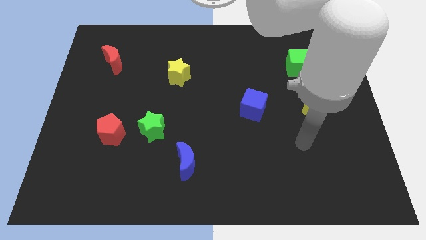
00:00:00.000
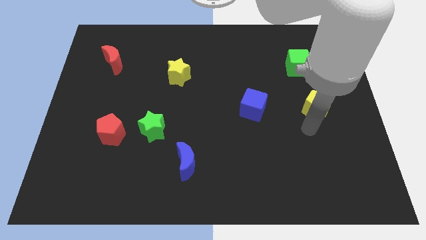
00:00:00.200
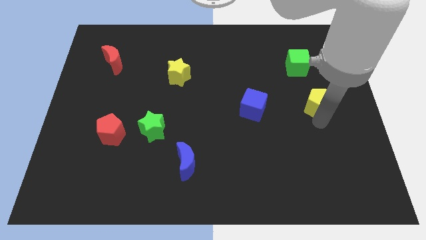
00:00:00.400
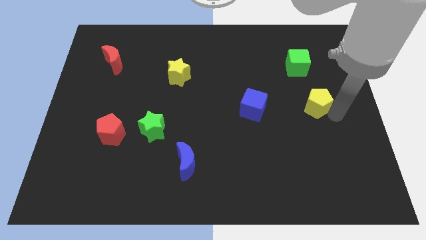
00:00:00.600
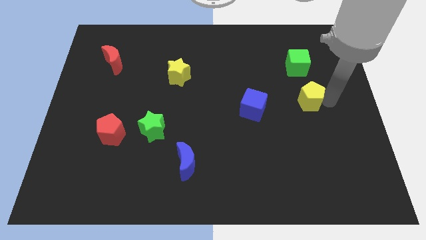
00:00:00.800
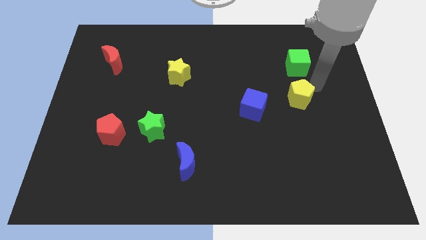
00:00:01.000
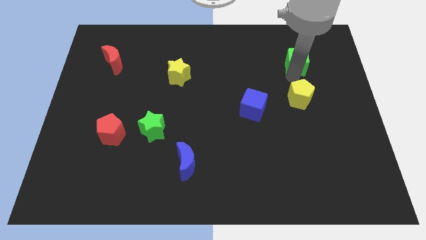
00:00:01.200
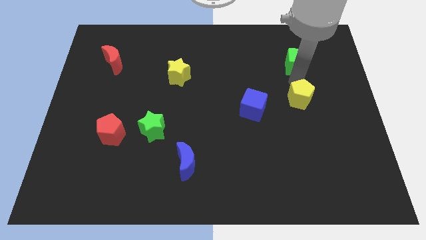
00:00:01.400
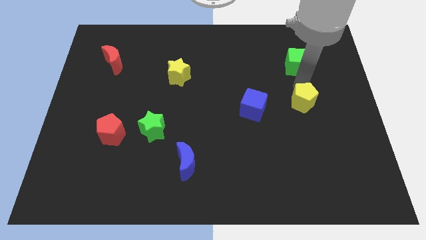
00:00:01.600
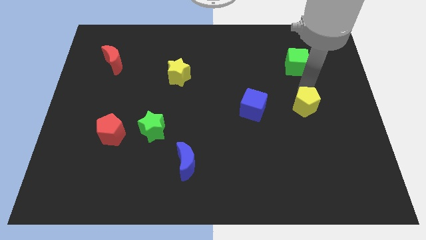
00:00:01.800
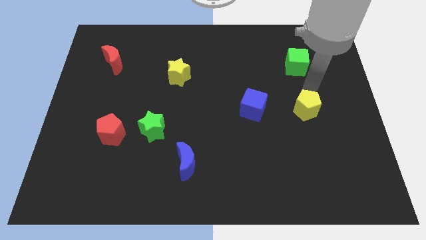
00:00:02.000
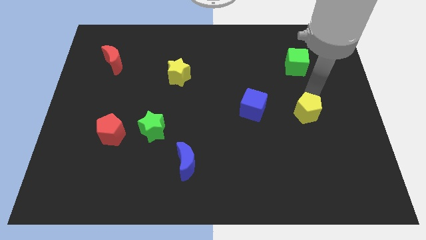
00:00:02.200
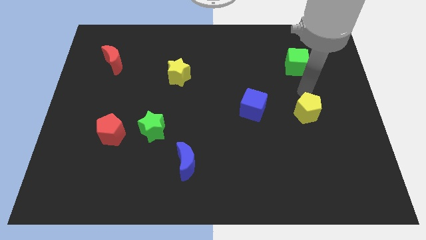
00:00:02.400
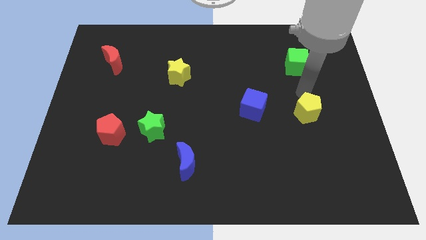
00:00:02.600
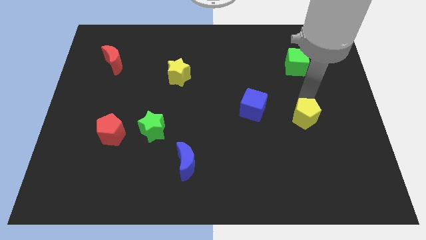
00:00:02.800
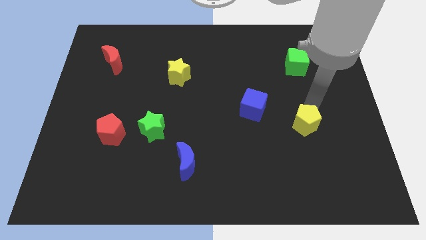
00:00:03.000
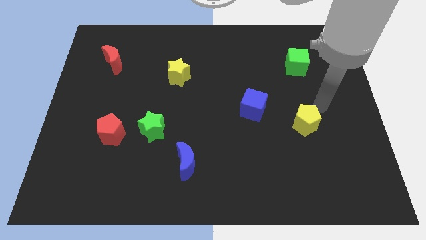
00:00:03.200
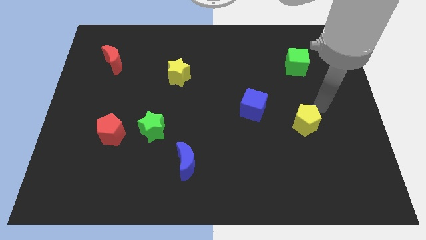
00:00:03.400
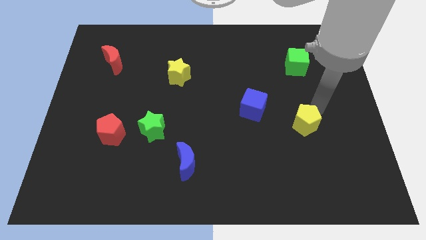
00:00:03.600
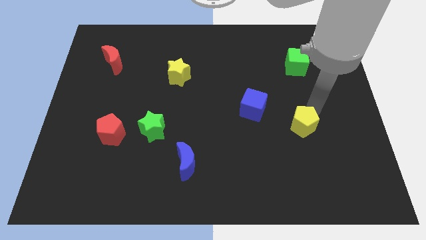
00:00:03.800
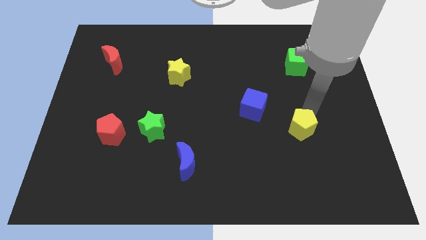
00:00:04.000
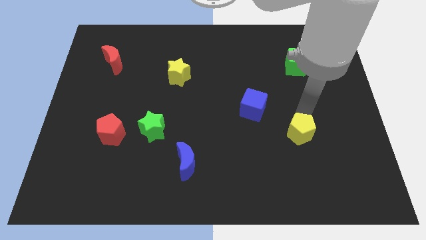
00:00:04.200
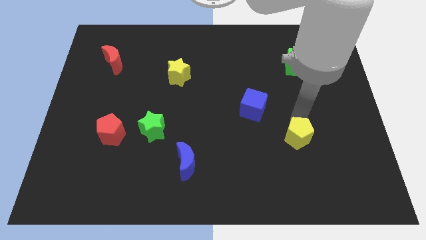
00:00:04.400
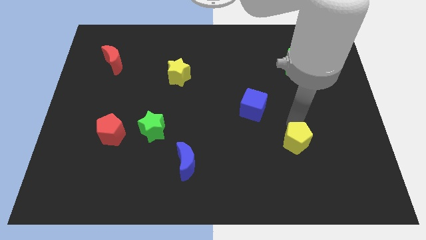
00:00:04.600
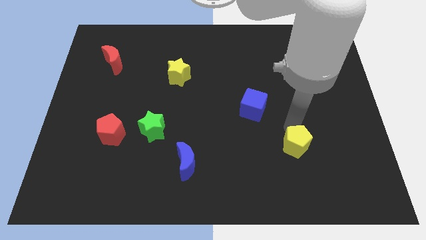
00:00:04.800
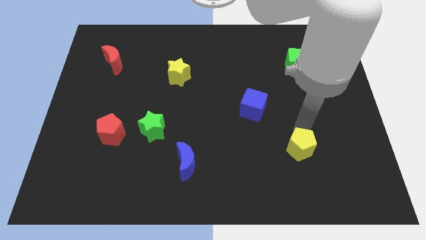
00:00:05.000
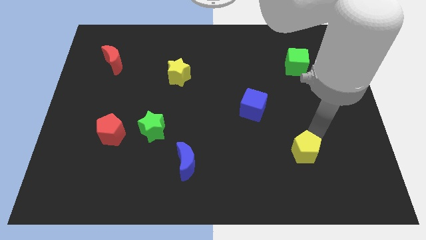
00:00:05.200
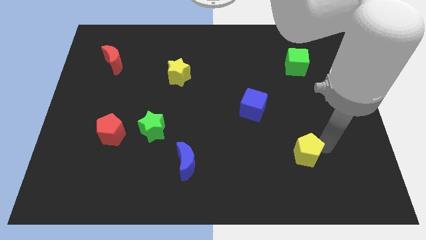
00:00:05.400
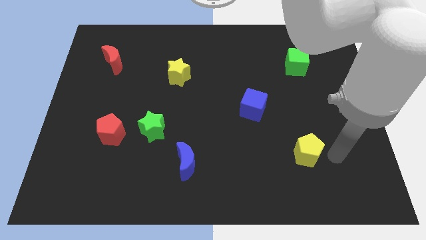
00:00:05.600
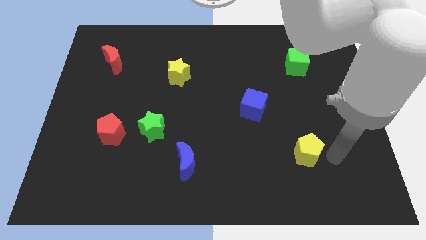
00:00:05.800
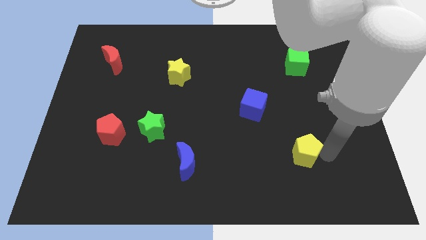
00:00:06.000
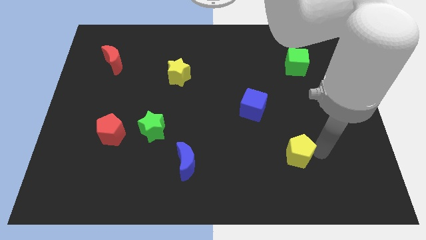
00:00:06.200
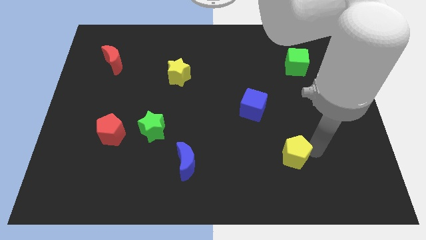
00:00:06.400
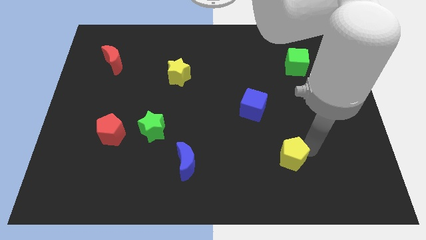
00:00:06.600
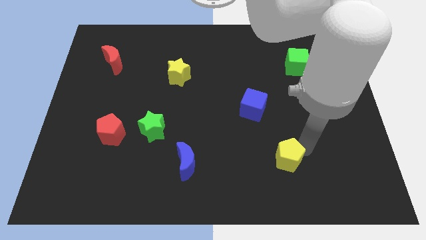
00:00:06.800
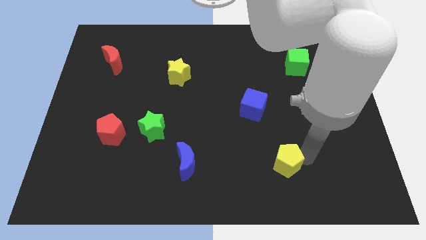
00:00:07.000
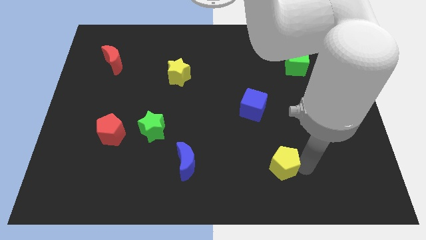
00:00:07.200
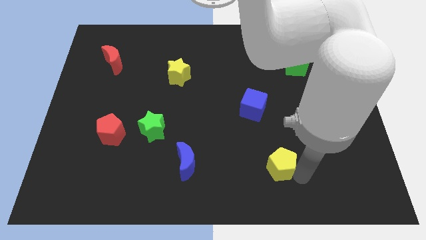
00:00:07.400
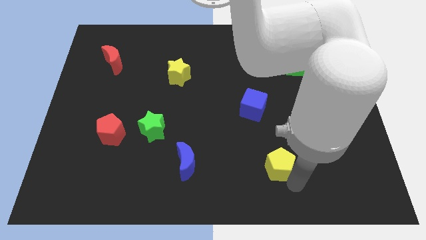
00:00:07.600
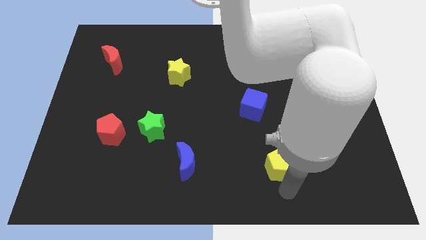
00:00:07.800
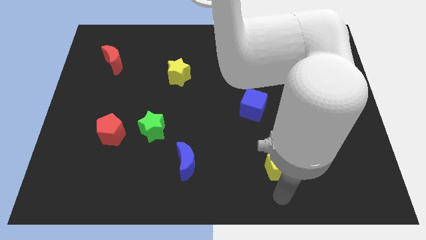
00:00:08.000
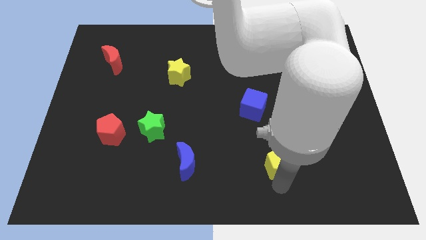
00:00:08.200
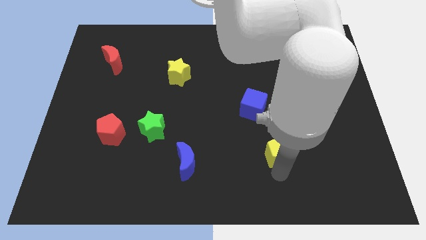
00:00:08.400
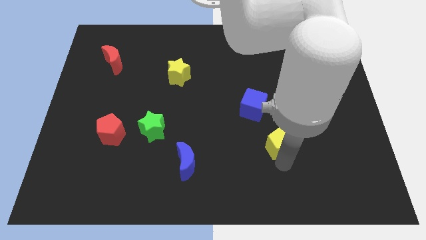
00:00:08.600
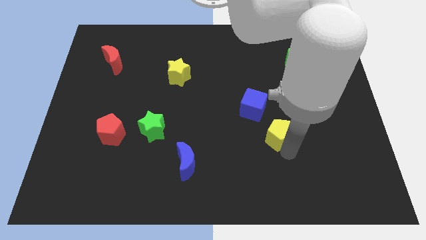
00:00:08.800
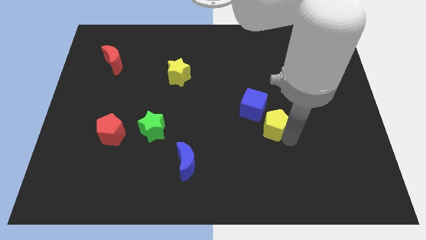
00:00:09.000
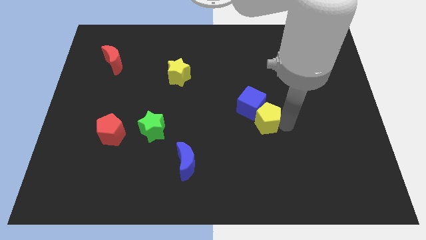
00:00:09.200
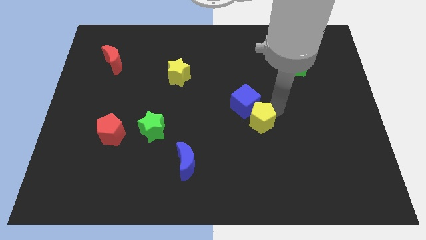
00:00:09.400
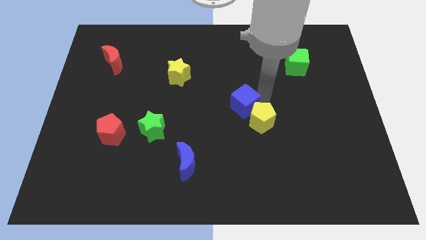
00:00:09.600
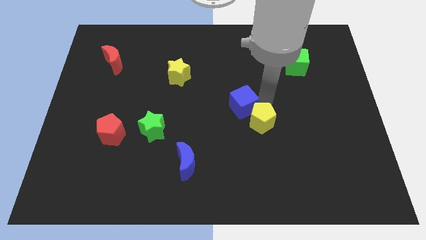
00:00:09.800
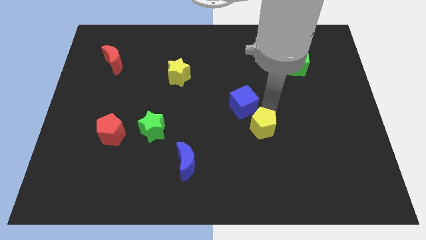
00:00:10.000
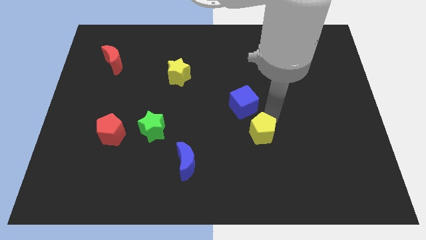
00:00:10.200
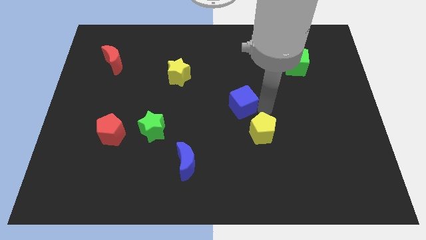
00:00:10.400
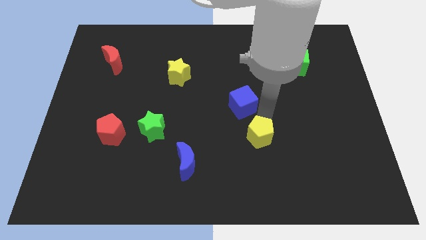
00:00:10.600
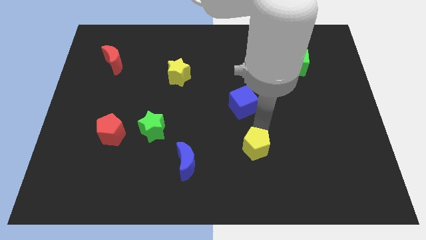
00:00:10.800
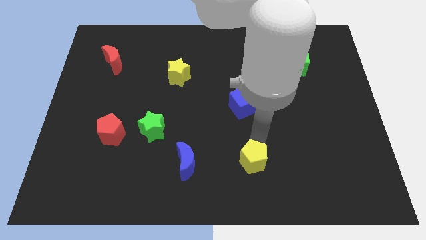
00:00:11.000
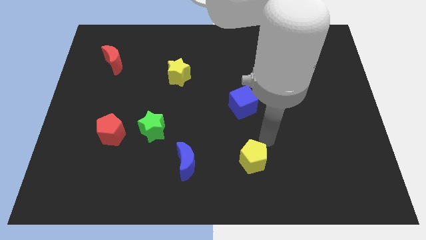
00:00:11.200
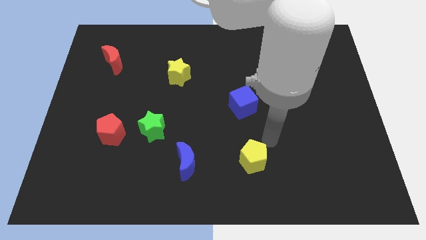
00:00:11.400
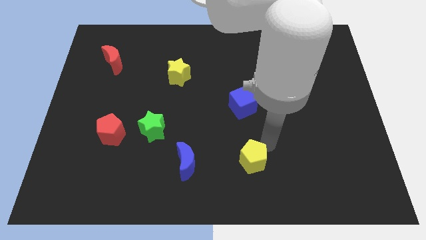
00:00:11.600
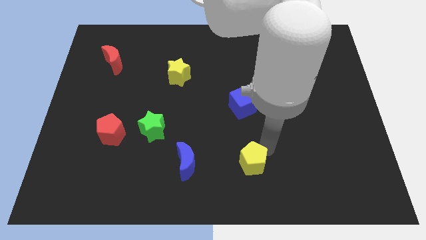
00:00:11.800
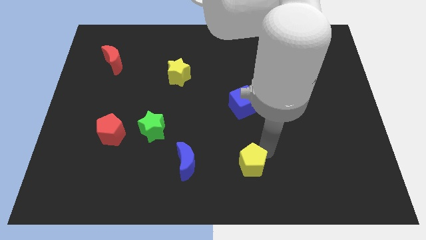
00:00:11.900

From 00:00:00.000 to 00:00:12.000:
slide the yellow pentagon to the bottom side
